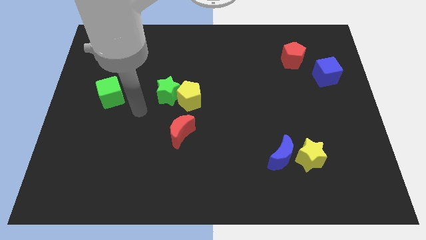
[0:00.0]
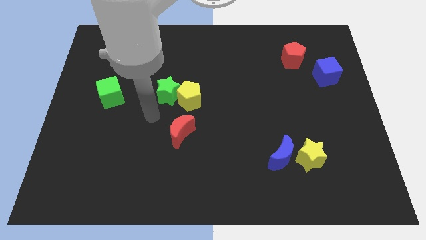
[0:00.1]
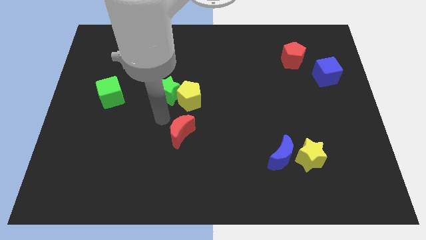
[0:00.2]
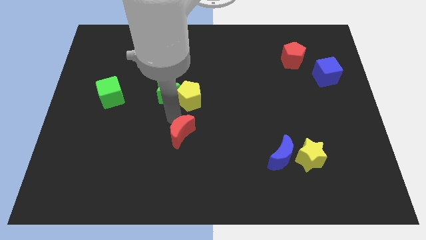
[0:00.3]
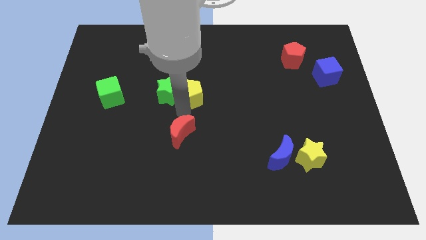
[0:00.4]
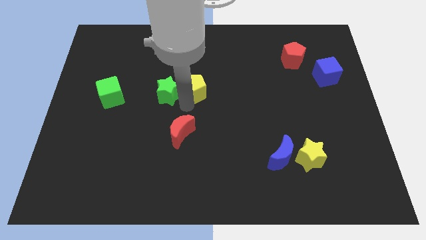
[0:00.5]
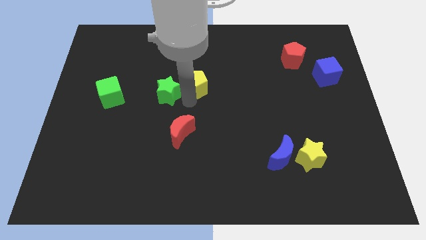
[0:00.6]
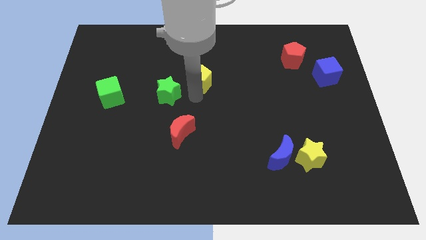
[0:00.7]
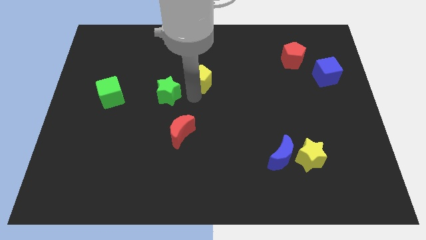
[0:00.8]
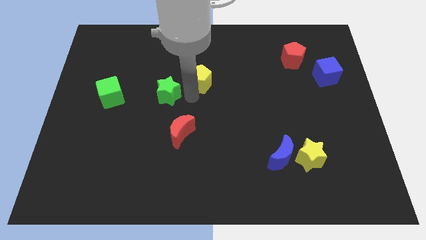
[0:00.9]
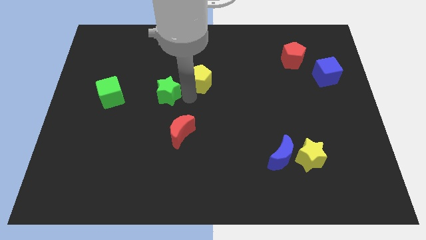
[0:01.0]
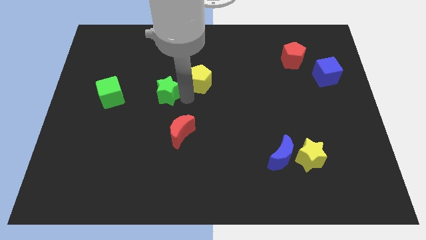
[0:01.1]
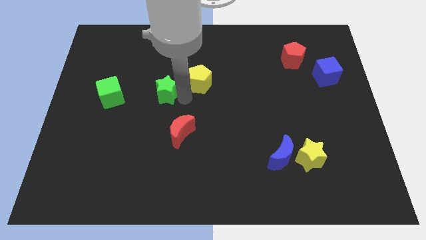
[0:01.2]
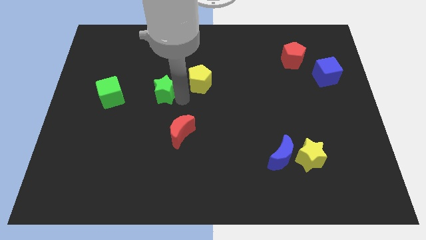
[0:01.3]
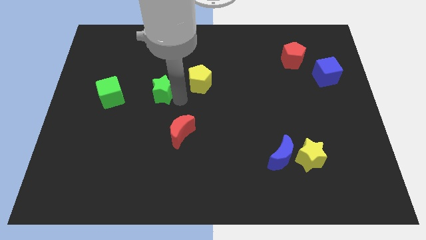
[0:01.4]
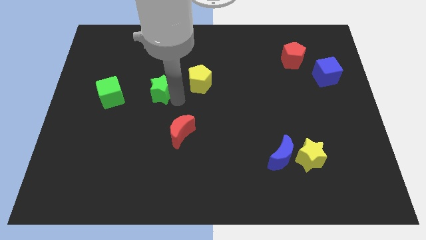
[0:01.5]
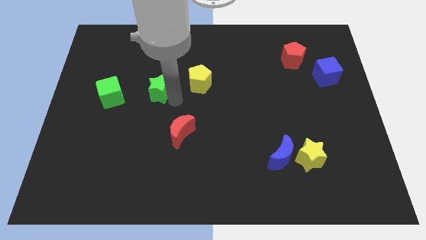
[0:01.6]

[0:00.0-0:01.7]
move the green star away from the yellow pentagon

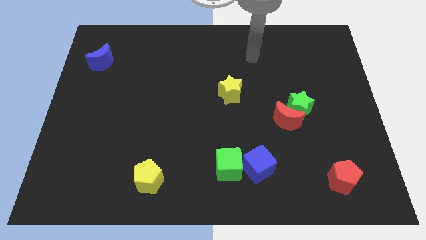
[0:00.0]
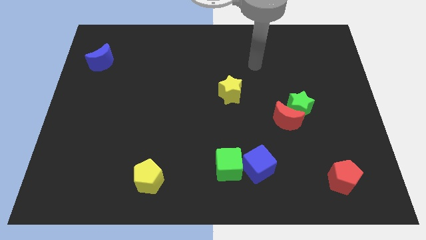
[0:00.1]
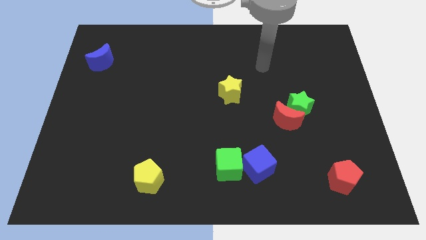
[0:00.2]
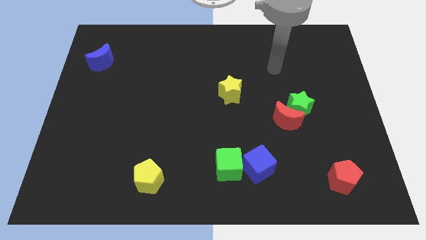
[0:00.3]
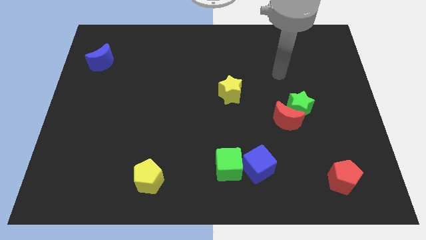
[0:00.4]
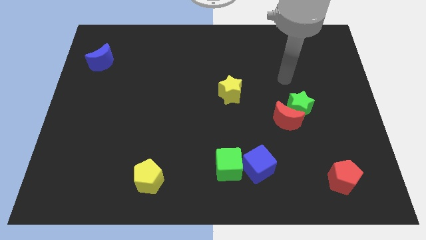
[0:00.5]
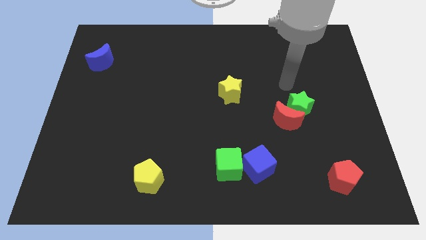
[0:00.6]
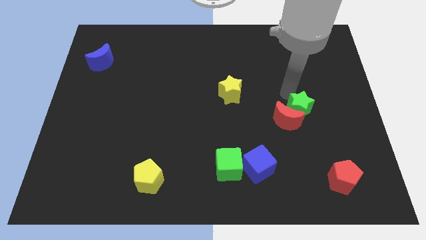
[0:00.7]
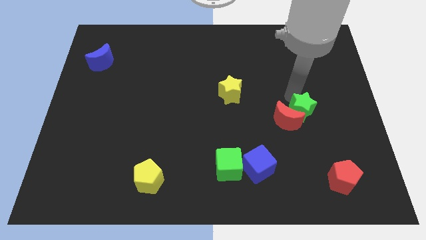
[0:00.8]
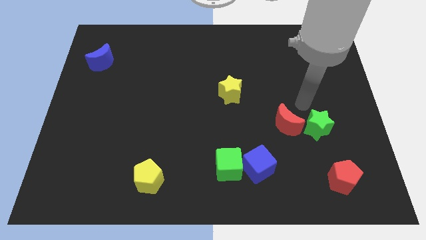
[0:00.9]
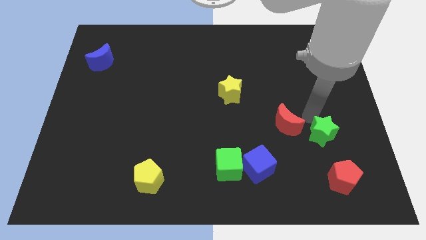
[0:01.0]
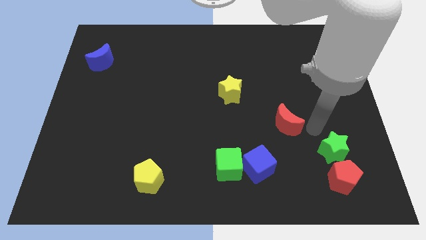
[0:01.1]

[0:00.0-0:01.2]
pull the red moon apart from the green star

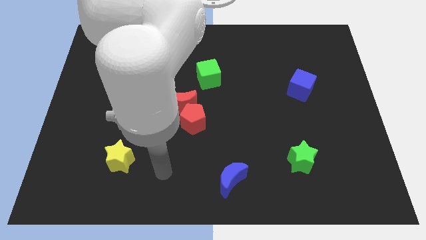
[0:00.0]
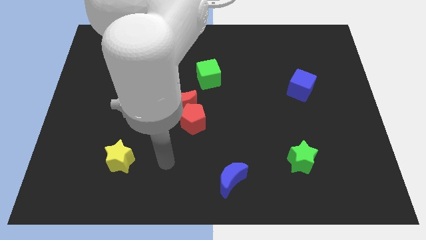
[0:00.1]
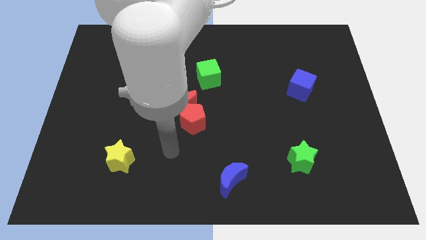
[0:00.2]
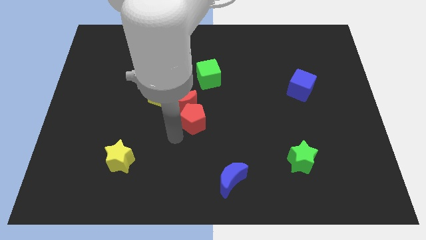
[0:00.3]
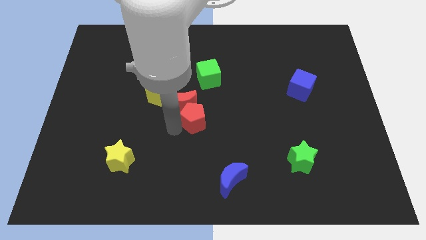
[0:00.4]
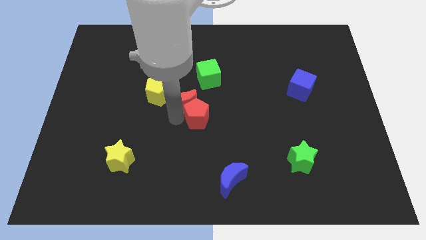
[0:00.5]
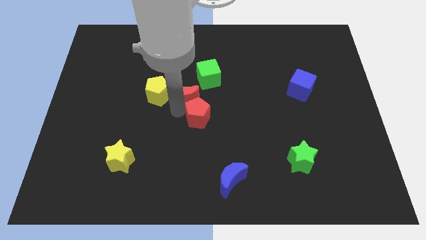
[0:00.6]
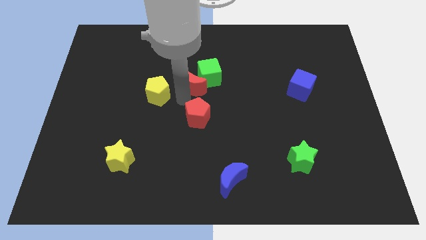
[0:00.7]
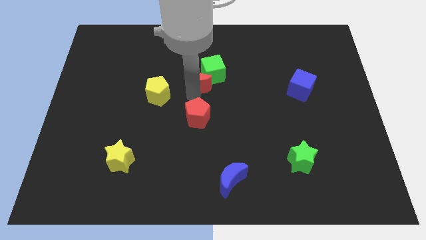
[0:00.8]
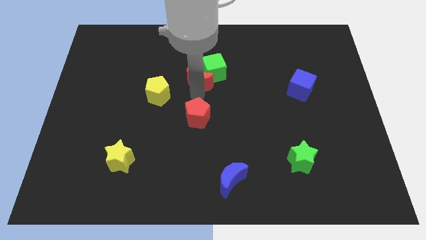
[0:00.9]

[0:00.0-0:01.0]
move the red pentagon away from the red moon

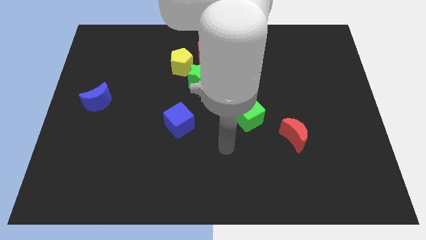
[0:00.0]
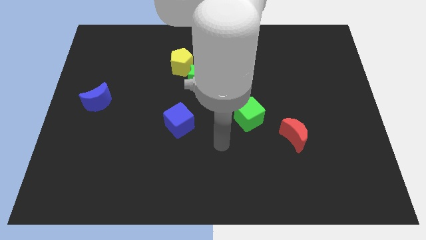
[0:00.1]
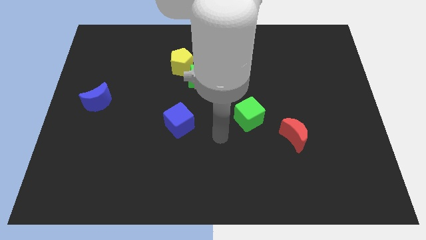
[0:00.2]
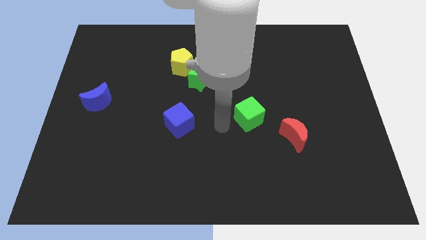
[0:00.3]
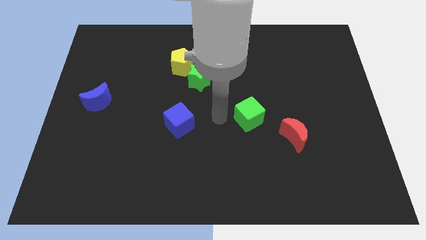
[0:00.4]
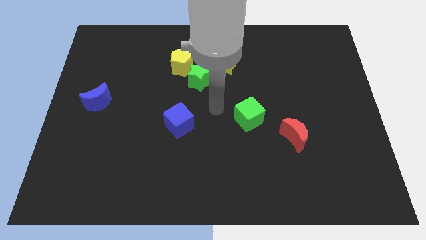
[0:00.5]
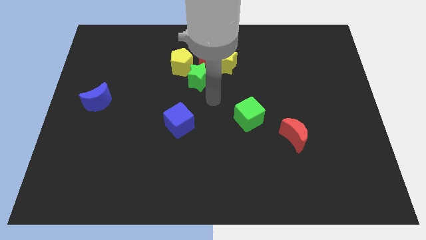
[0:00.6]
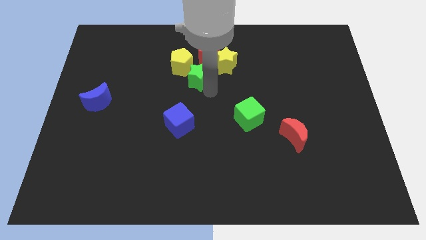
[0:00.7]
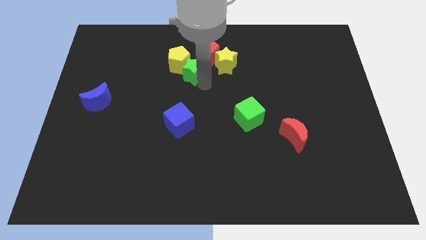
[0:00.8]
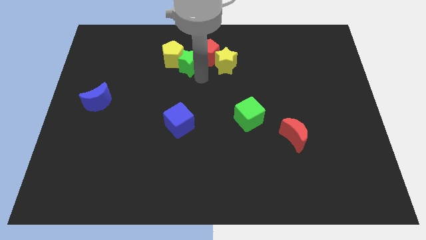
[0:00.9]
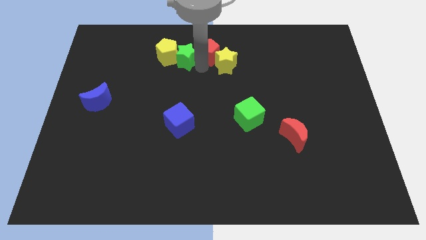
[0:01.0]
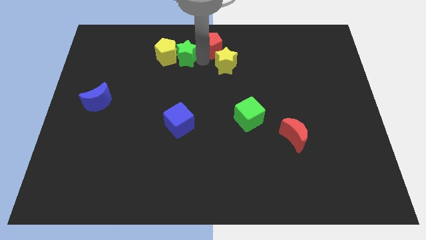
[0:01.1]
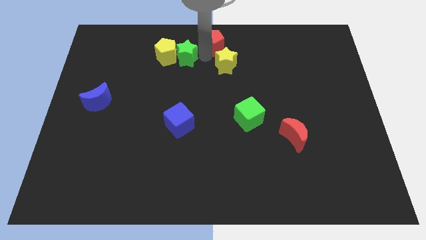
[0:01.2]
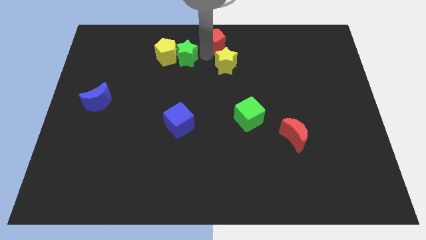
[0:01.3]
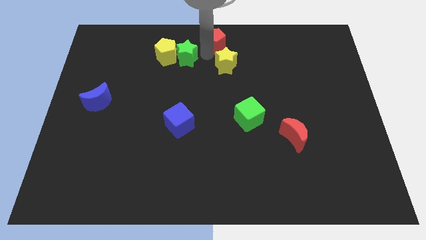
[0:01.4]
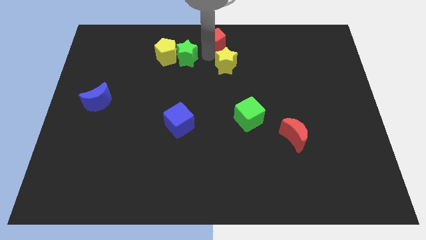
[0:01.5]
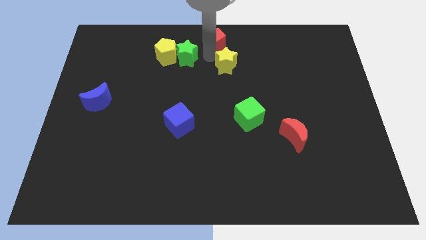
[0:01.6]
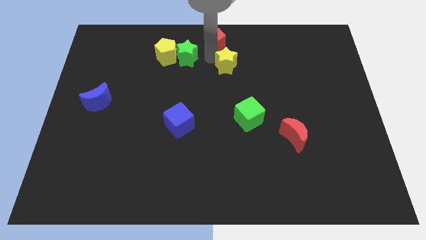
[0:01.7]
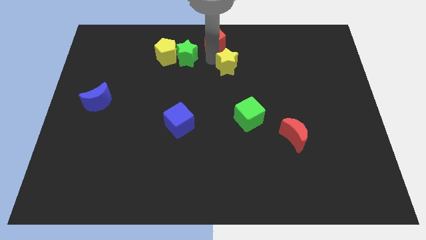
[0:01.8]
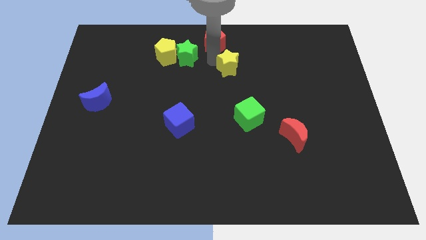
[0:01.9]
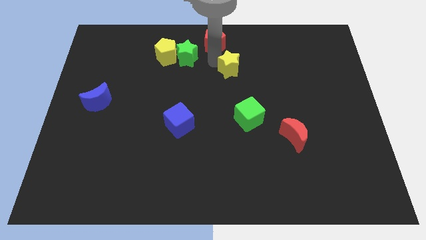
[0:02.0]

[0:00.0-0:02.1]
move the yellow star away from the red pentagon and green star

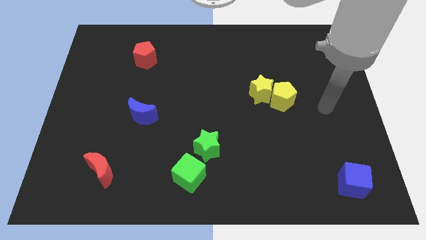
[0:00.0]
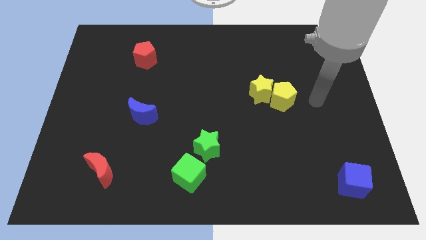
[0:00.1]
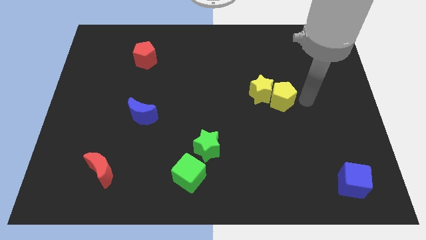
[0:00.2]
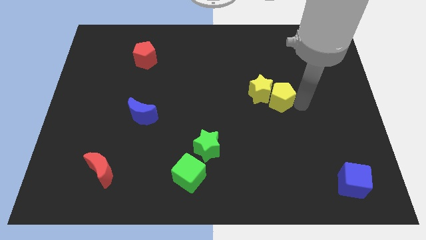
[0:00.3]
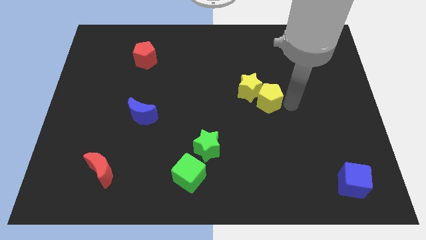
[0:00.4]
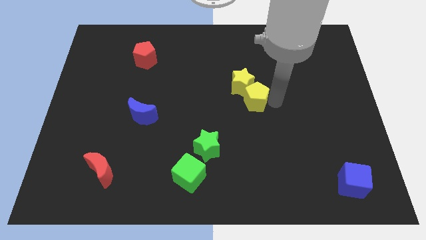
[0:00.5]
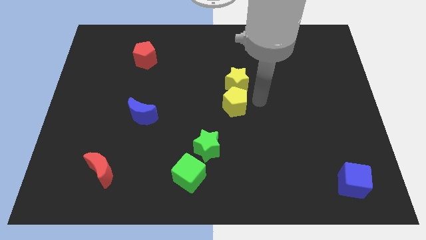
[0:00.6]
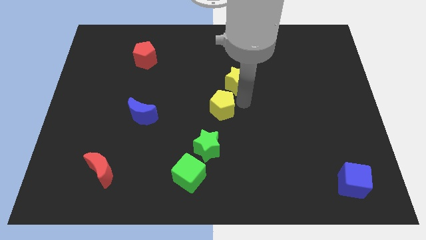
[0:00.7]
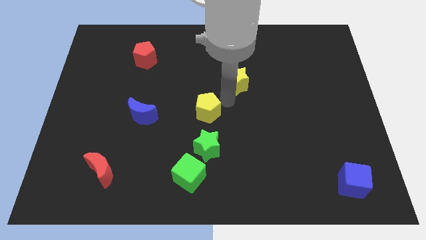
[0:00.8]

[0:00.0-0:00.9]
pull the yellow star apart from the yellow pentagon

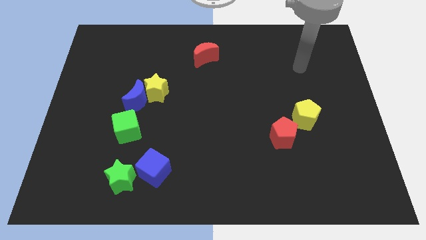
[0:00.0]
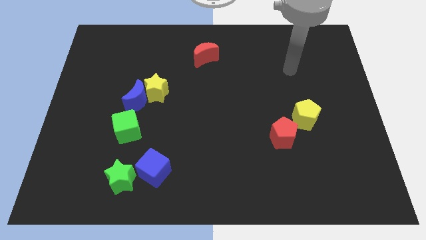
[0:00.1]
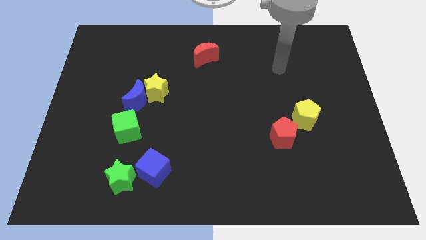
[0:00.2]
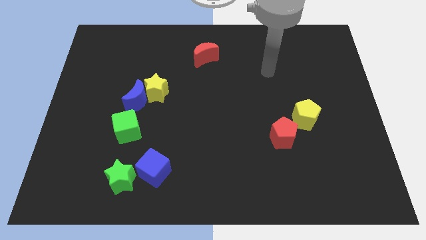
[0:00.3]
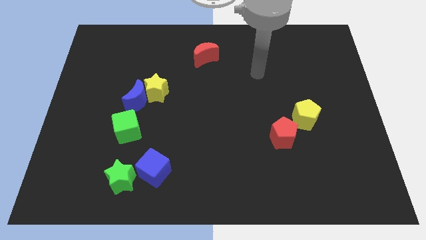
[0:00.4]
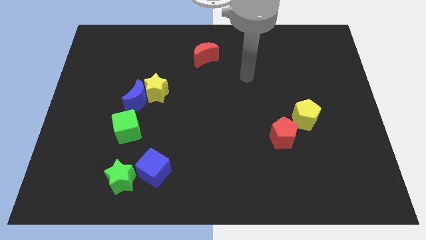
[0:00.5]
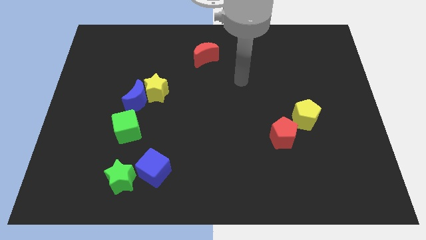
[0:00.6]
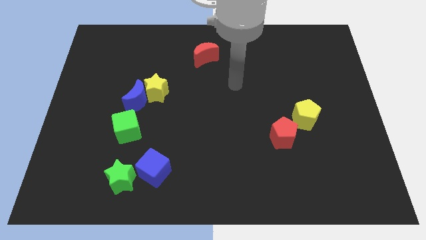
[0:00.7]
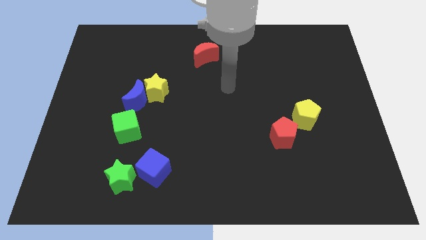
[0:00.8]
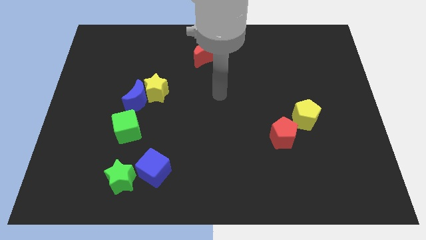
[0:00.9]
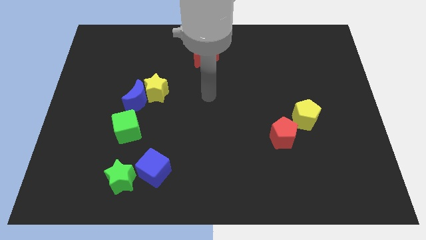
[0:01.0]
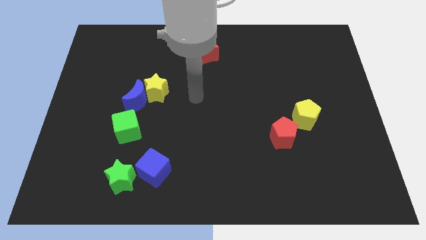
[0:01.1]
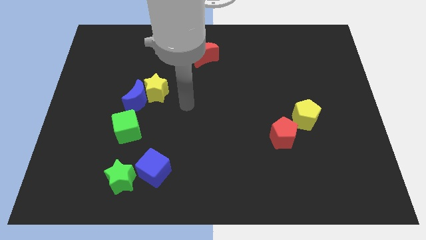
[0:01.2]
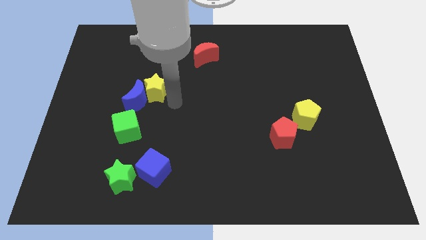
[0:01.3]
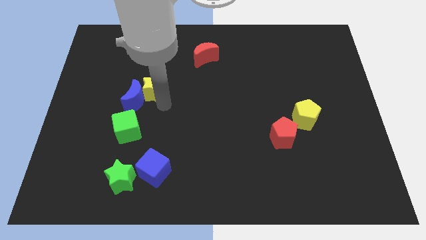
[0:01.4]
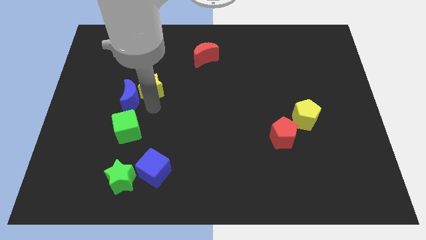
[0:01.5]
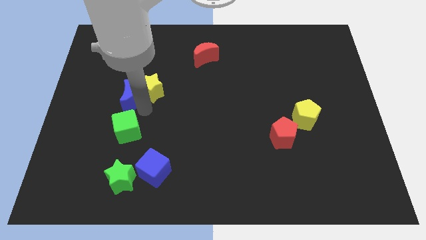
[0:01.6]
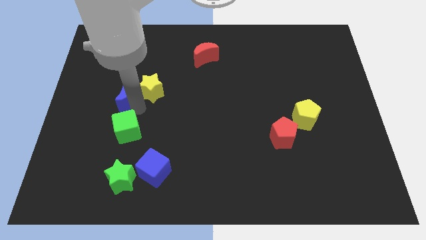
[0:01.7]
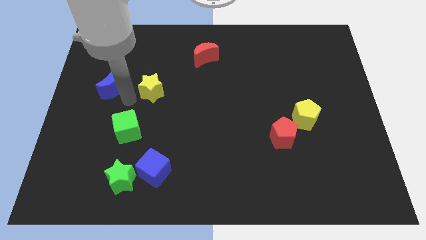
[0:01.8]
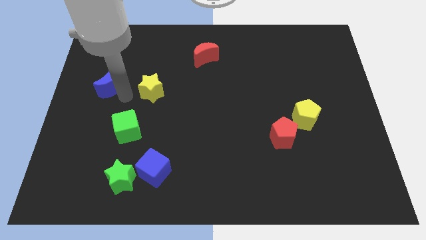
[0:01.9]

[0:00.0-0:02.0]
pull the yellow star apart from the blue moon

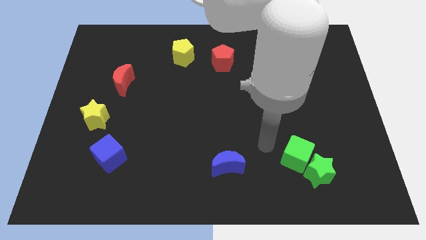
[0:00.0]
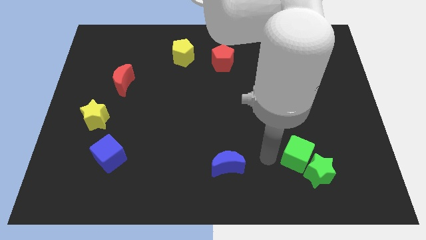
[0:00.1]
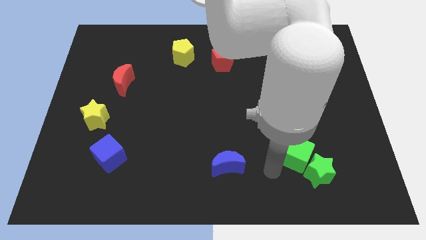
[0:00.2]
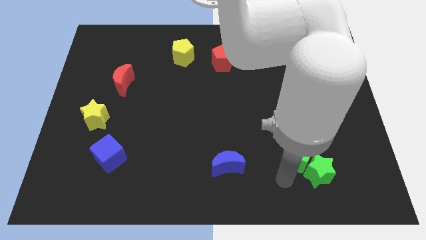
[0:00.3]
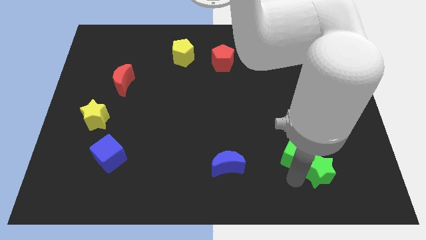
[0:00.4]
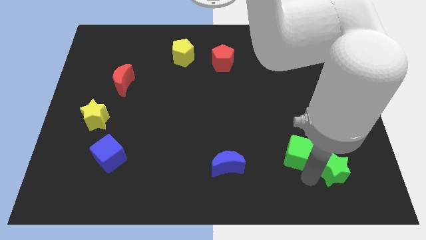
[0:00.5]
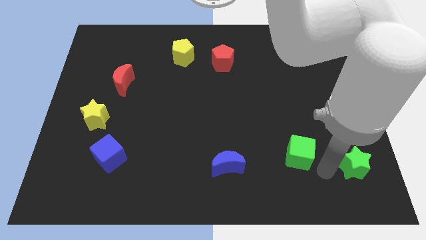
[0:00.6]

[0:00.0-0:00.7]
separate the green cube from the green star
